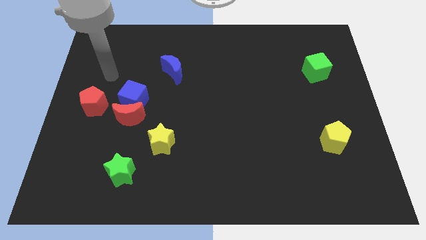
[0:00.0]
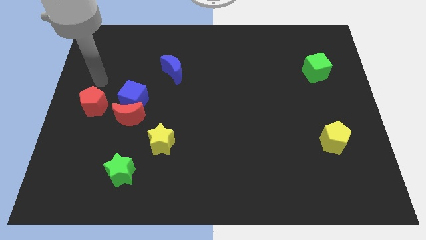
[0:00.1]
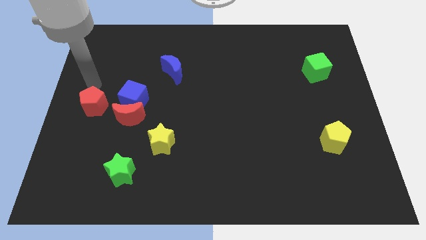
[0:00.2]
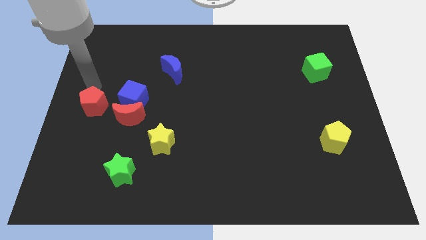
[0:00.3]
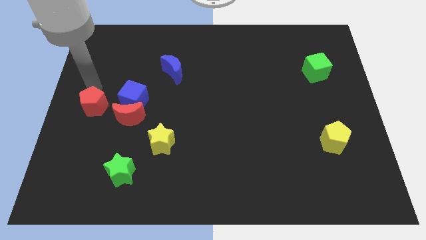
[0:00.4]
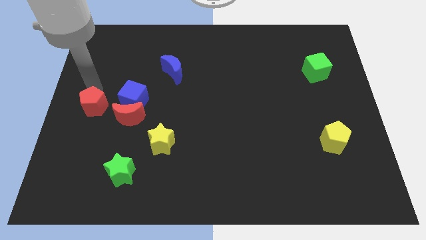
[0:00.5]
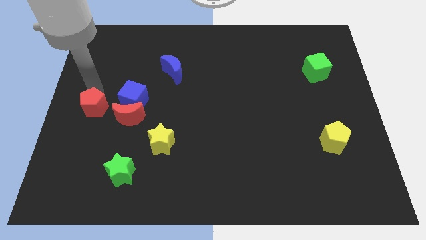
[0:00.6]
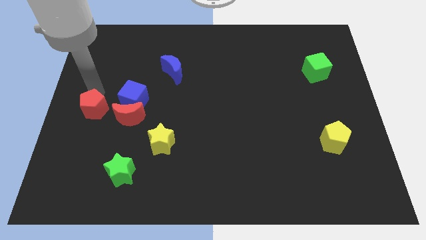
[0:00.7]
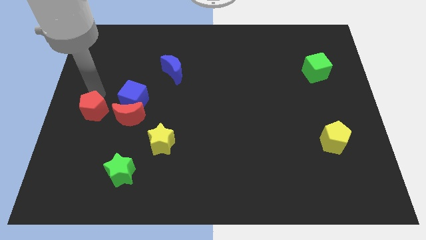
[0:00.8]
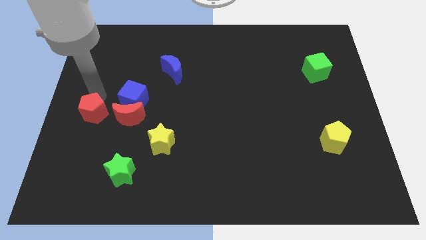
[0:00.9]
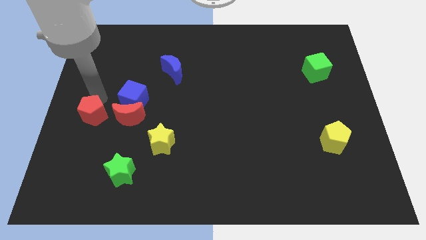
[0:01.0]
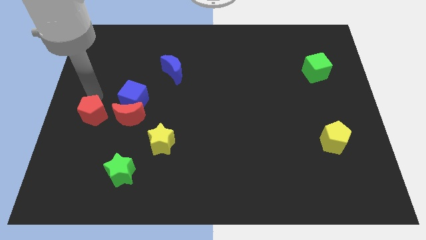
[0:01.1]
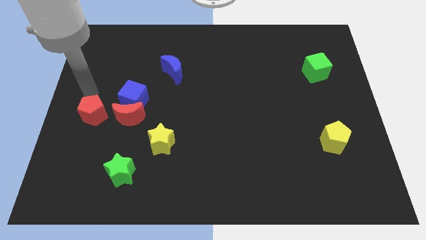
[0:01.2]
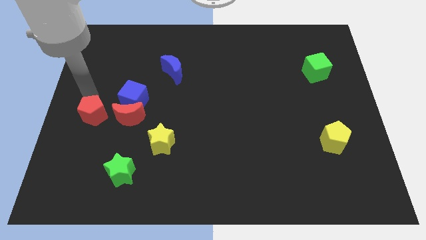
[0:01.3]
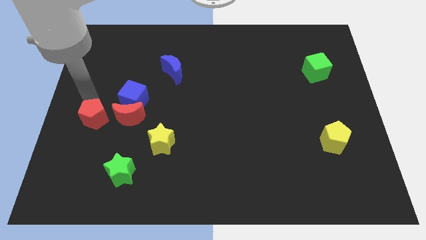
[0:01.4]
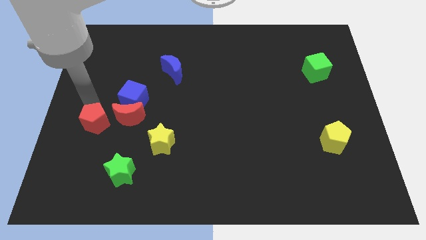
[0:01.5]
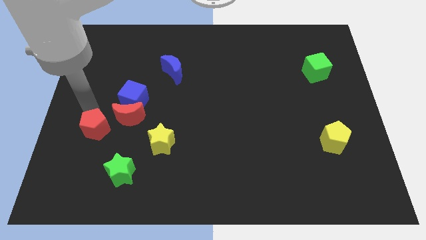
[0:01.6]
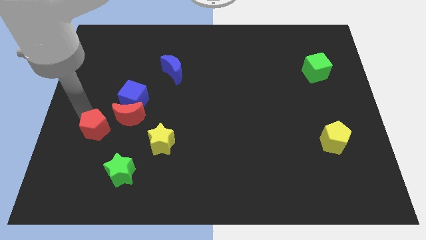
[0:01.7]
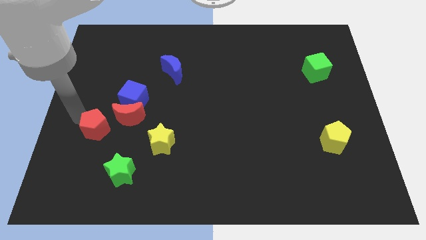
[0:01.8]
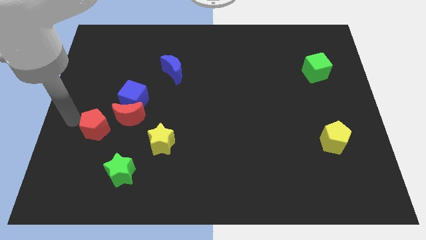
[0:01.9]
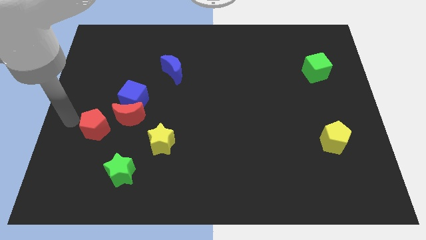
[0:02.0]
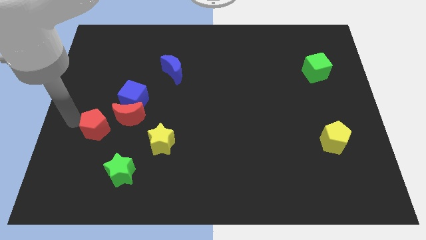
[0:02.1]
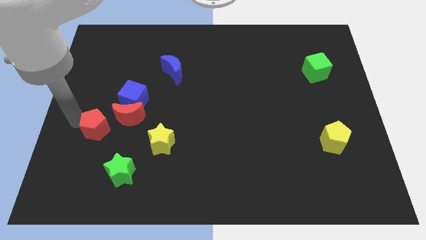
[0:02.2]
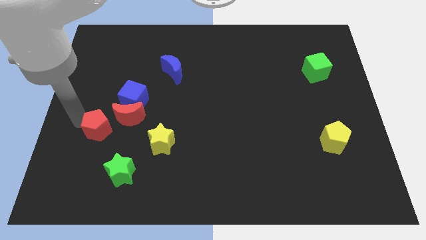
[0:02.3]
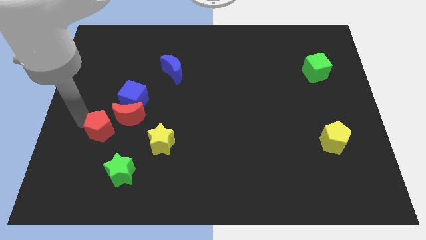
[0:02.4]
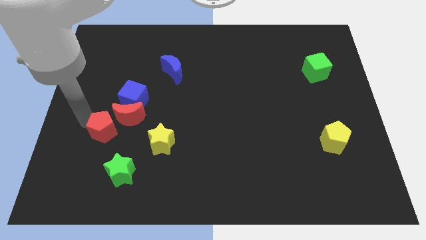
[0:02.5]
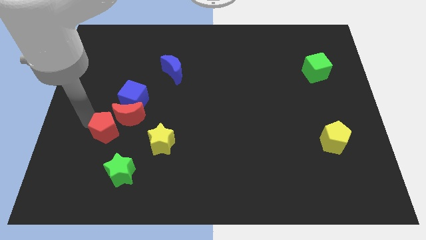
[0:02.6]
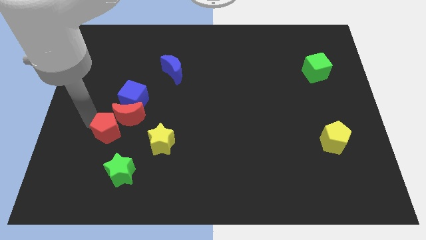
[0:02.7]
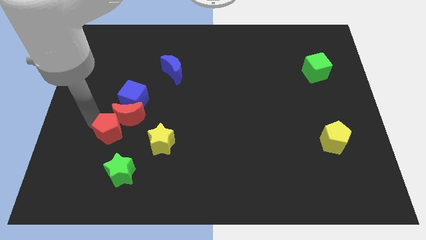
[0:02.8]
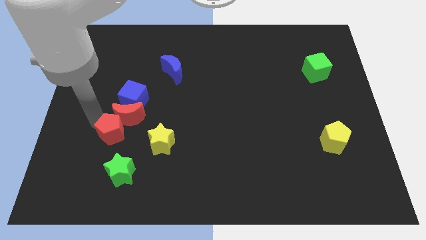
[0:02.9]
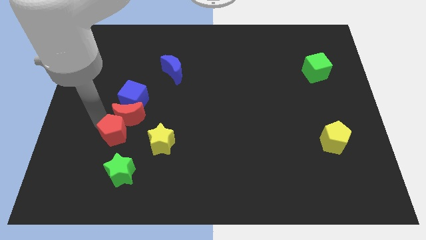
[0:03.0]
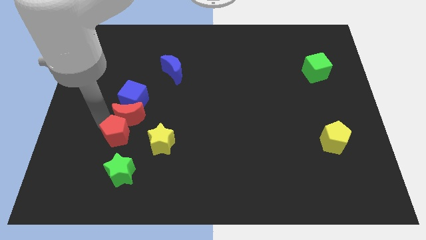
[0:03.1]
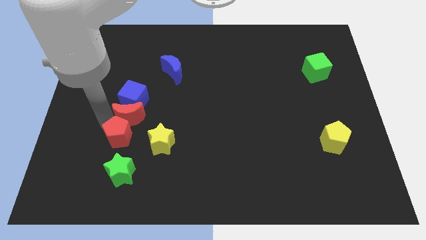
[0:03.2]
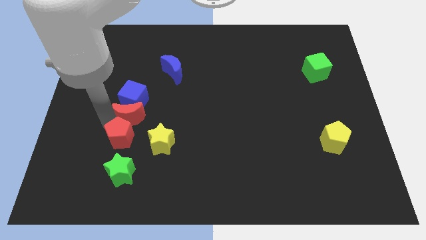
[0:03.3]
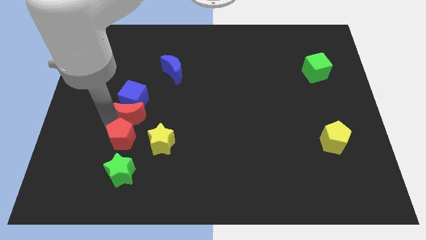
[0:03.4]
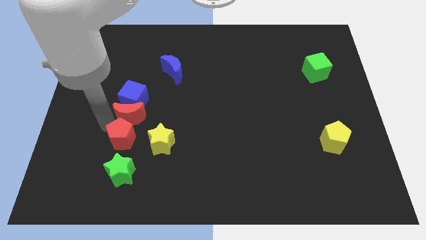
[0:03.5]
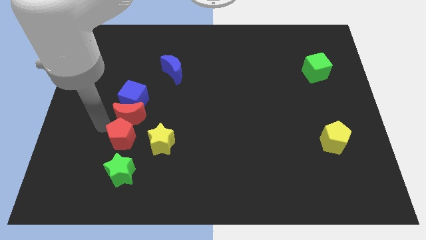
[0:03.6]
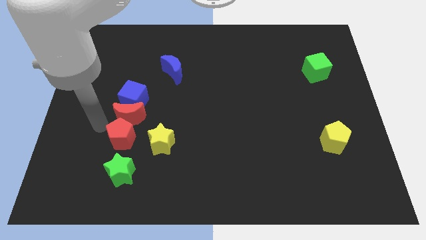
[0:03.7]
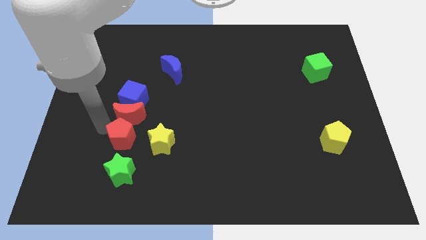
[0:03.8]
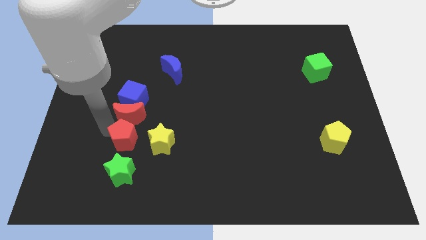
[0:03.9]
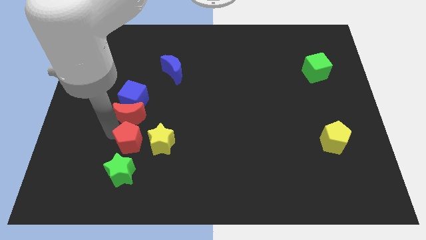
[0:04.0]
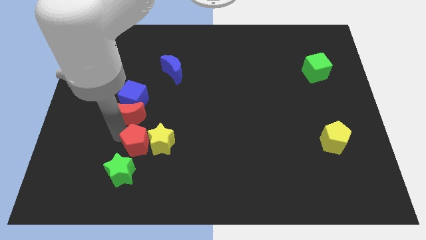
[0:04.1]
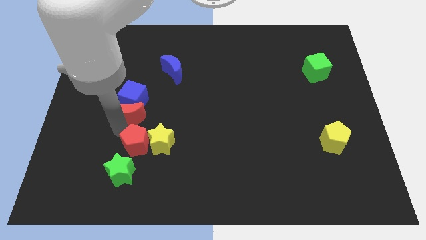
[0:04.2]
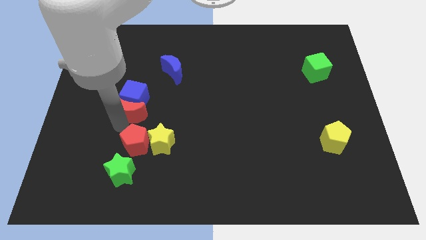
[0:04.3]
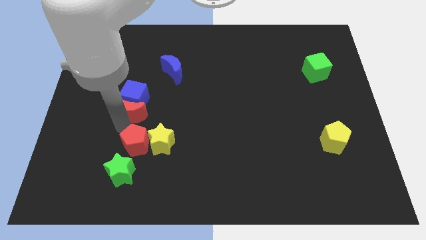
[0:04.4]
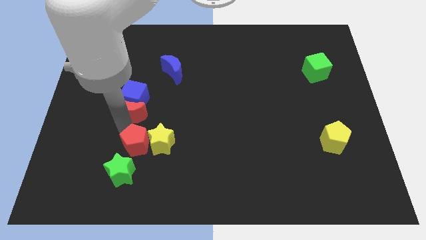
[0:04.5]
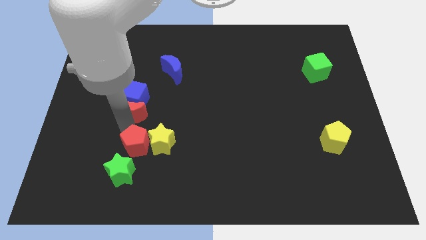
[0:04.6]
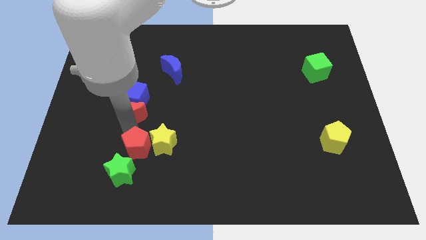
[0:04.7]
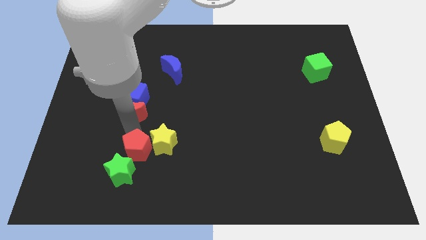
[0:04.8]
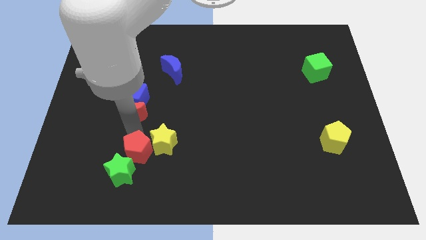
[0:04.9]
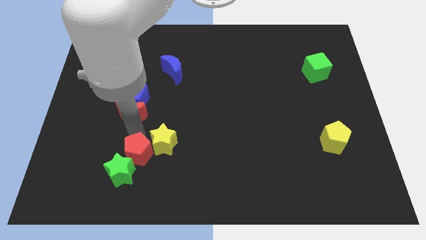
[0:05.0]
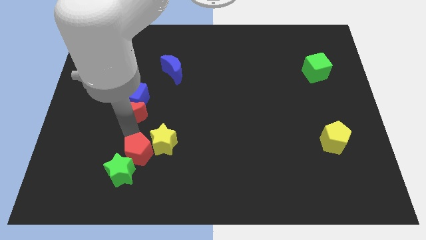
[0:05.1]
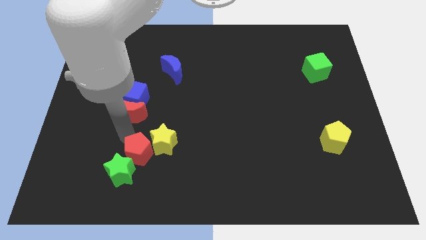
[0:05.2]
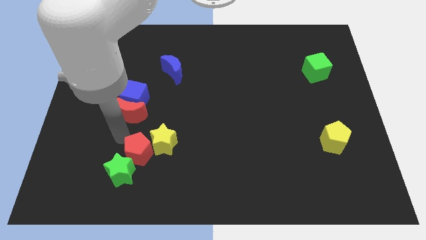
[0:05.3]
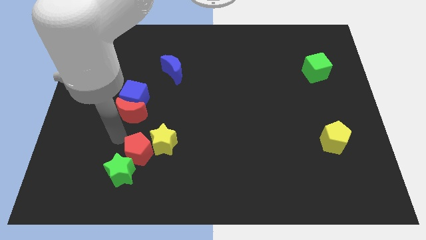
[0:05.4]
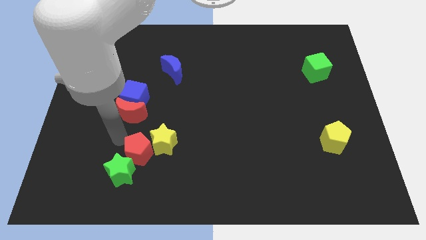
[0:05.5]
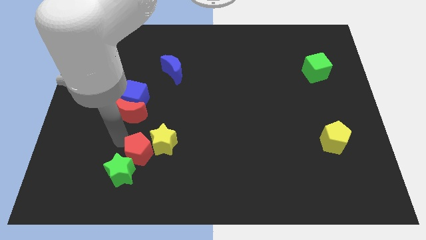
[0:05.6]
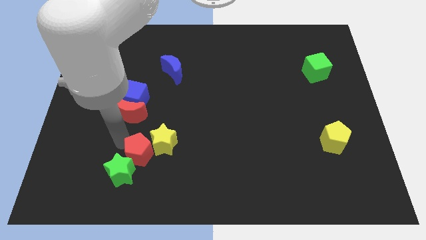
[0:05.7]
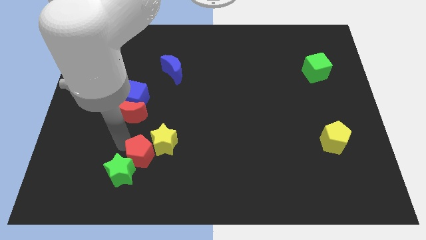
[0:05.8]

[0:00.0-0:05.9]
move the red pentagon just right of the green star

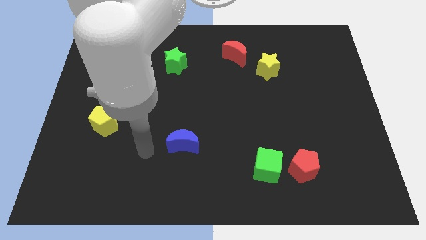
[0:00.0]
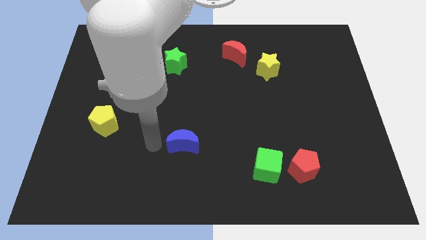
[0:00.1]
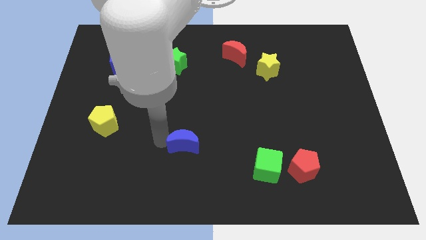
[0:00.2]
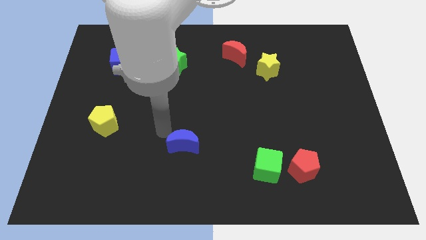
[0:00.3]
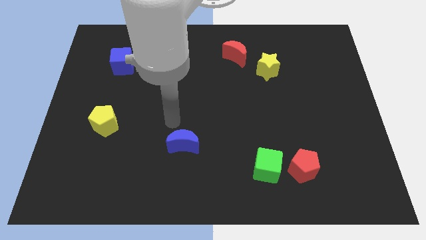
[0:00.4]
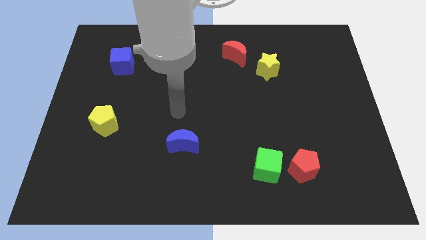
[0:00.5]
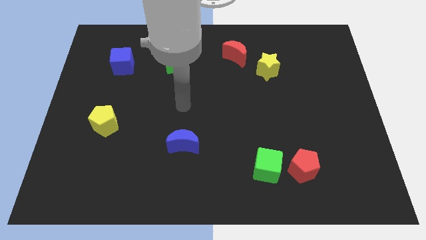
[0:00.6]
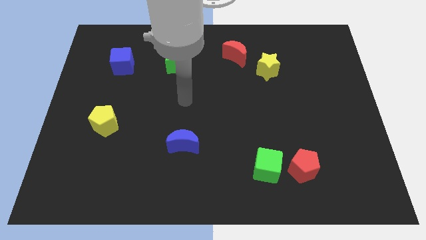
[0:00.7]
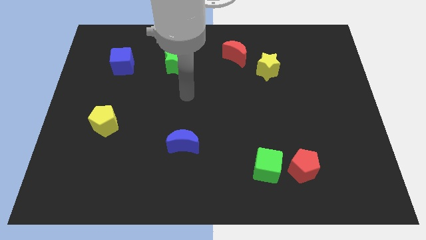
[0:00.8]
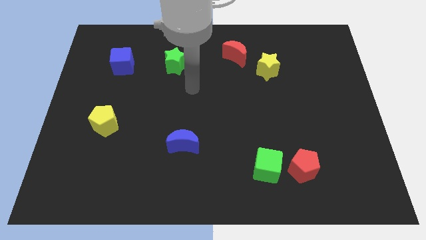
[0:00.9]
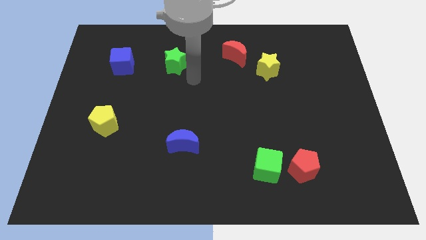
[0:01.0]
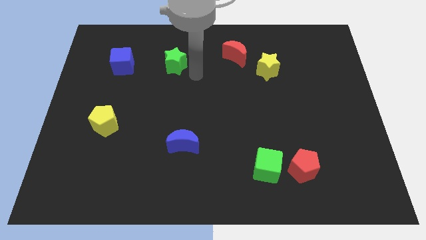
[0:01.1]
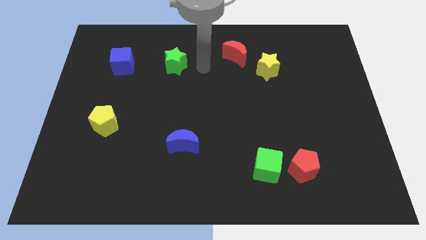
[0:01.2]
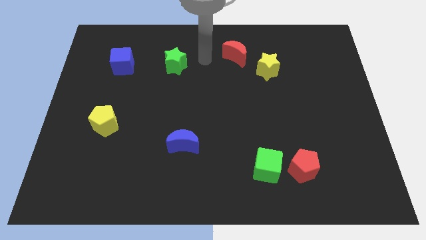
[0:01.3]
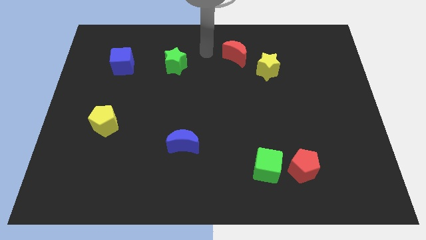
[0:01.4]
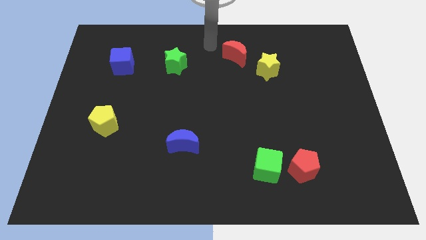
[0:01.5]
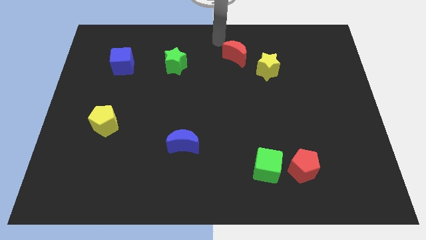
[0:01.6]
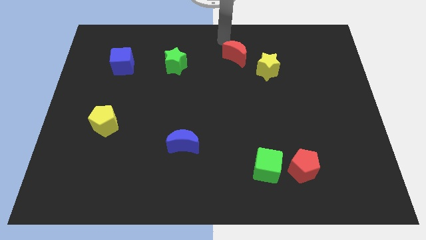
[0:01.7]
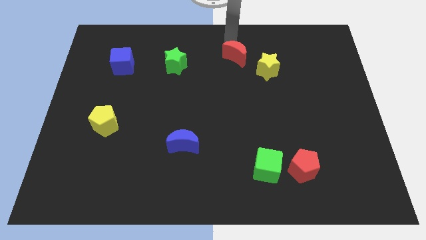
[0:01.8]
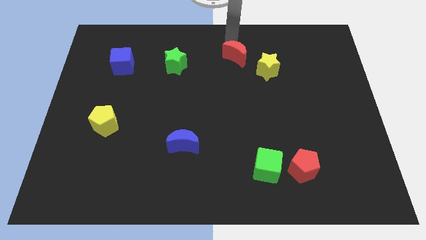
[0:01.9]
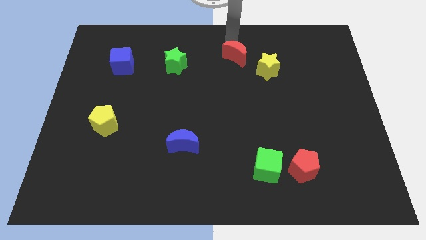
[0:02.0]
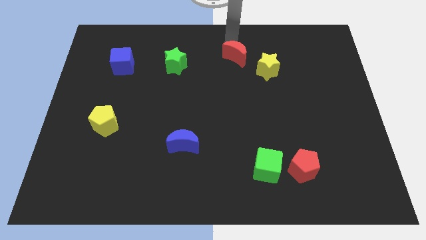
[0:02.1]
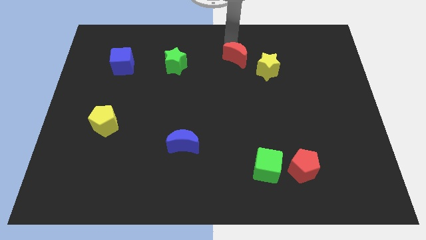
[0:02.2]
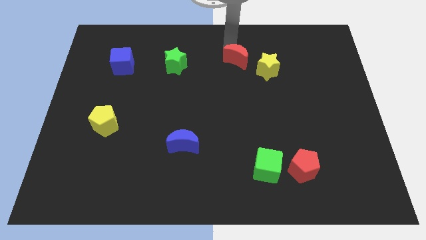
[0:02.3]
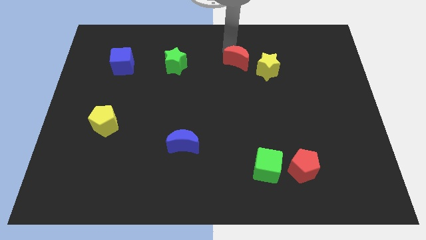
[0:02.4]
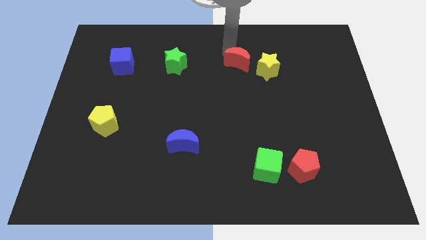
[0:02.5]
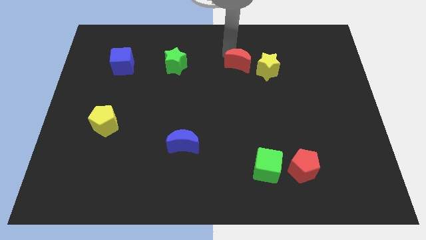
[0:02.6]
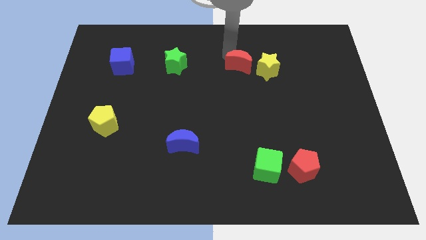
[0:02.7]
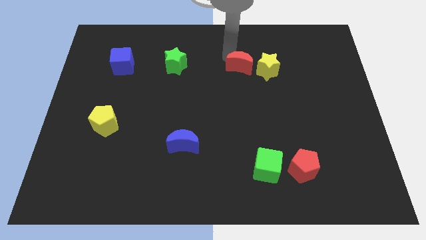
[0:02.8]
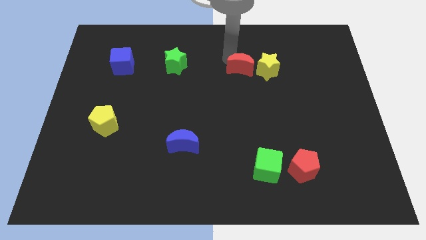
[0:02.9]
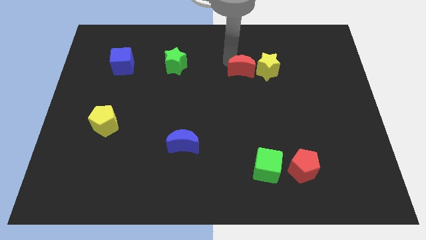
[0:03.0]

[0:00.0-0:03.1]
move the red moon diagonally down and to the left of the yellow star
